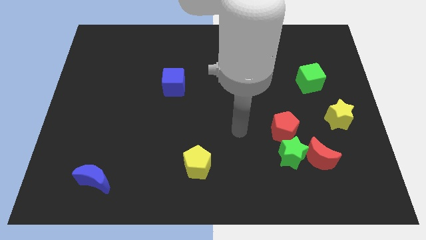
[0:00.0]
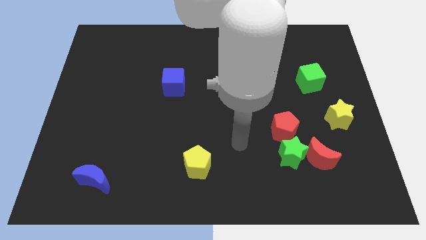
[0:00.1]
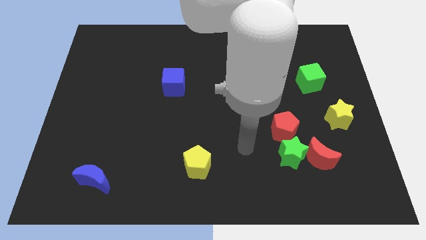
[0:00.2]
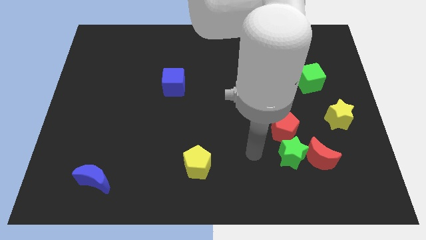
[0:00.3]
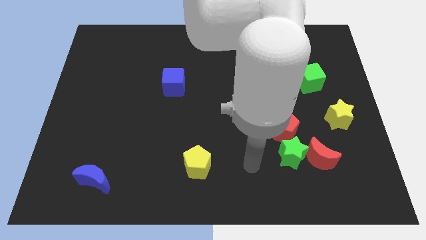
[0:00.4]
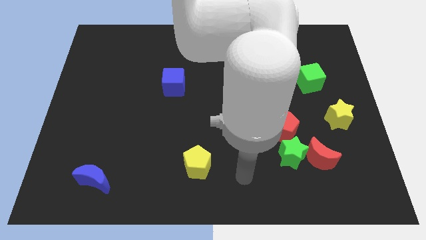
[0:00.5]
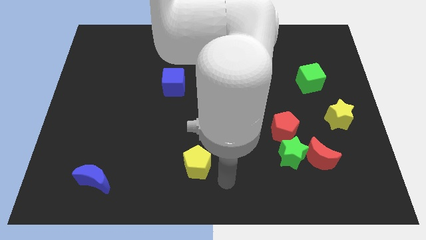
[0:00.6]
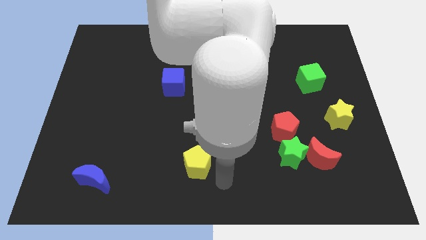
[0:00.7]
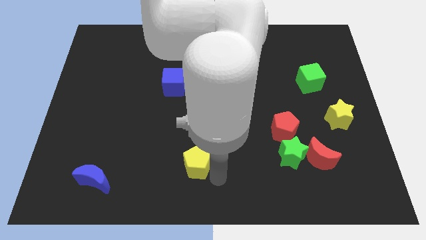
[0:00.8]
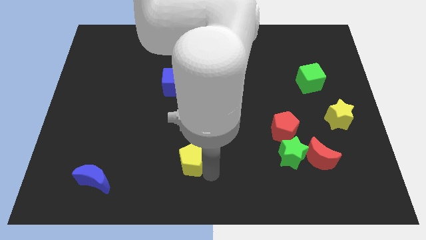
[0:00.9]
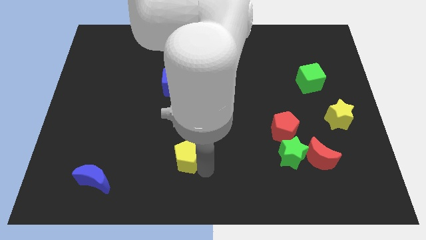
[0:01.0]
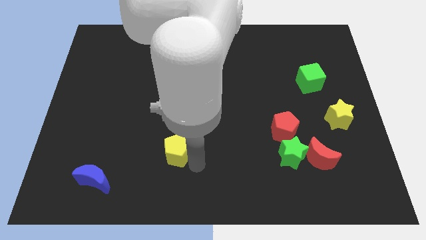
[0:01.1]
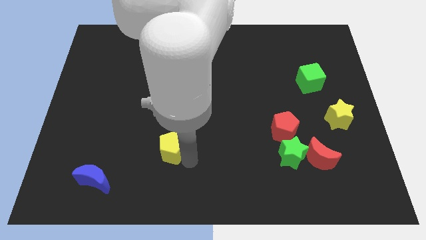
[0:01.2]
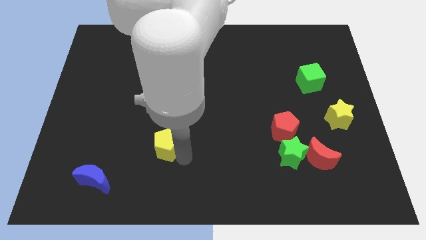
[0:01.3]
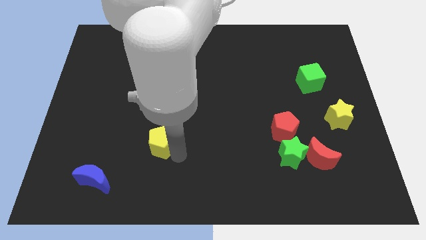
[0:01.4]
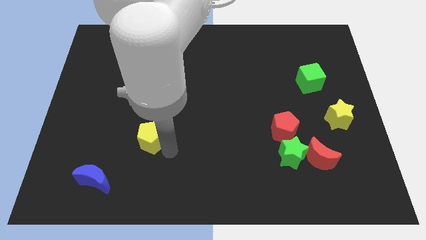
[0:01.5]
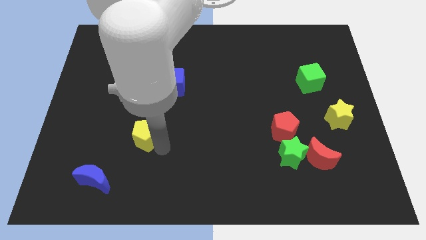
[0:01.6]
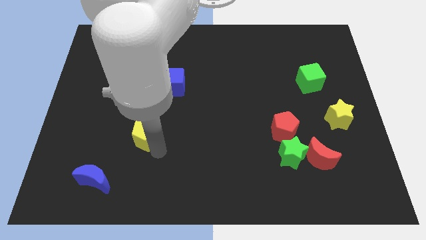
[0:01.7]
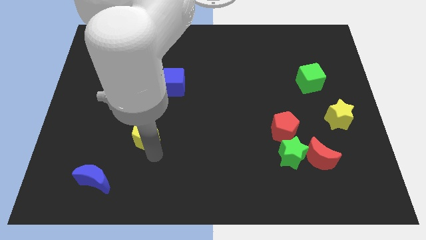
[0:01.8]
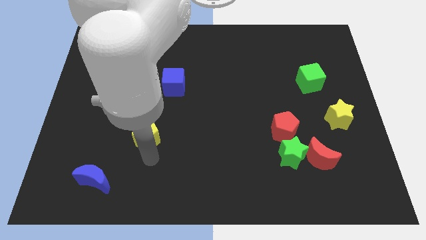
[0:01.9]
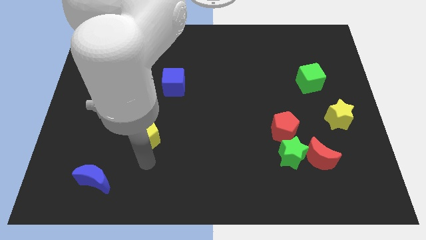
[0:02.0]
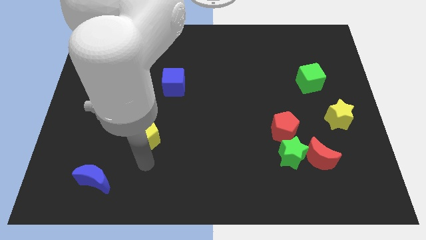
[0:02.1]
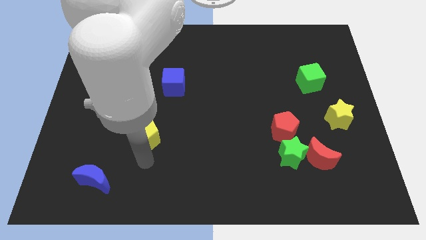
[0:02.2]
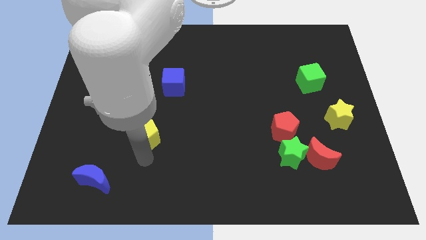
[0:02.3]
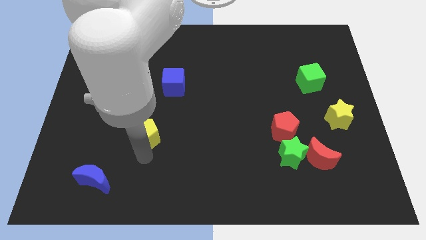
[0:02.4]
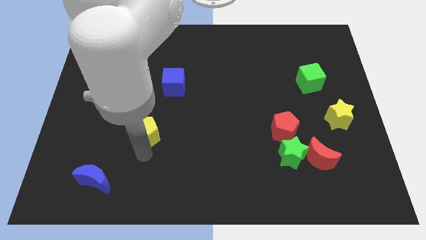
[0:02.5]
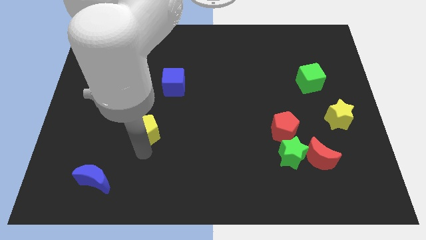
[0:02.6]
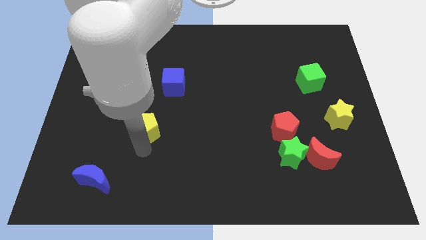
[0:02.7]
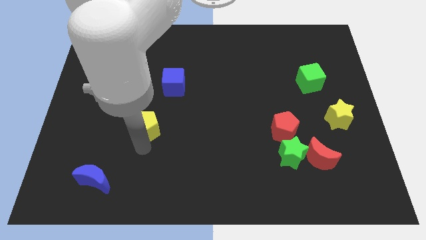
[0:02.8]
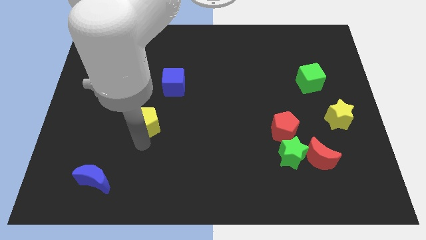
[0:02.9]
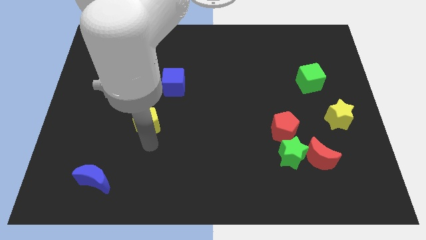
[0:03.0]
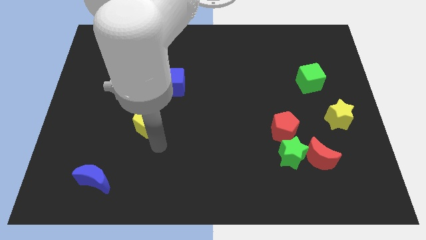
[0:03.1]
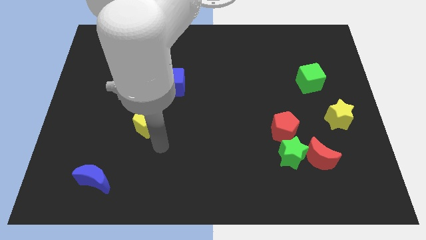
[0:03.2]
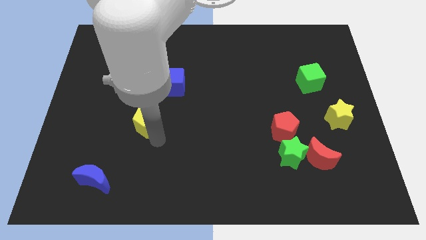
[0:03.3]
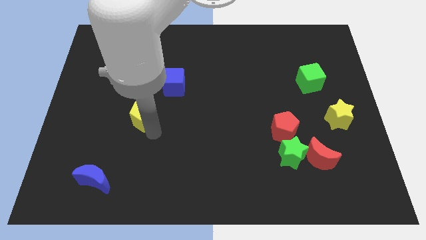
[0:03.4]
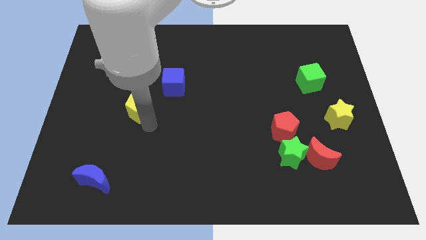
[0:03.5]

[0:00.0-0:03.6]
push the yellow pentagon up and to the left

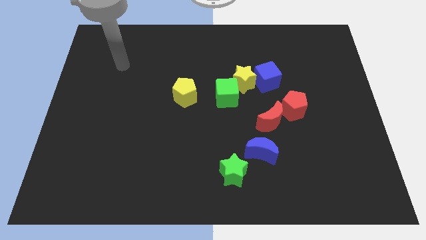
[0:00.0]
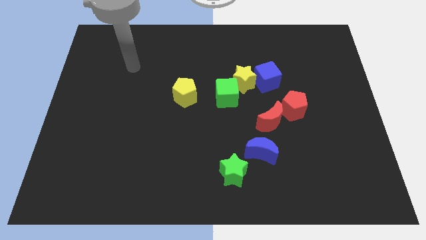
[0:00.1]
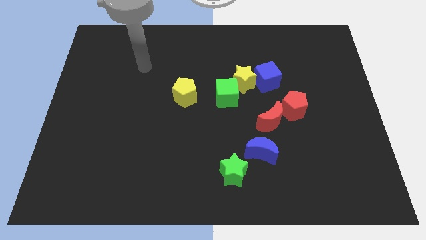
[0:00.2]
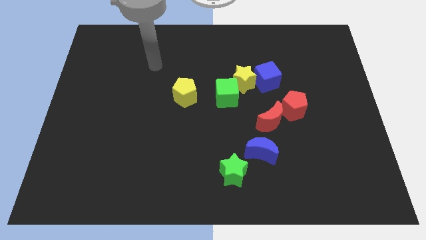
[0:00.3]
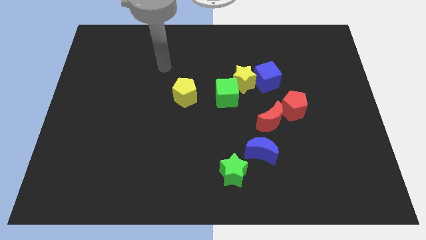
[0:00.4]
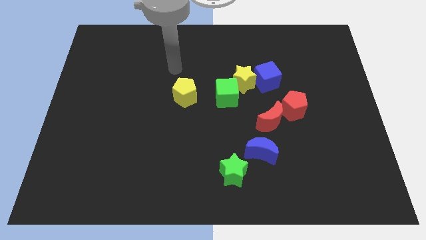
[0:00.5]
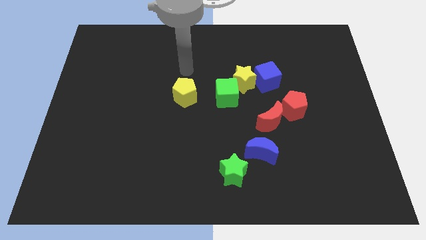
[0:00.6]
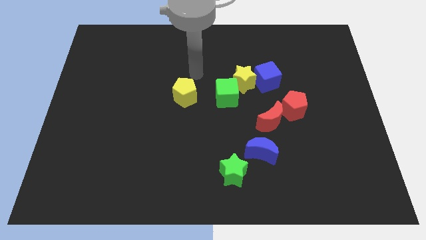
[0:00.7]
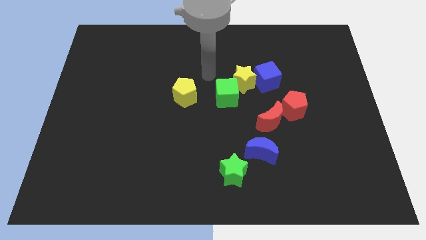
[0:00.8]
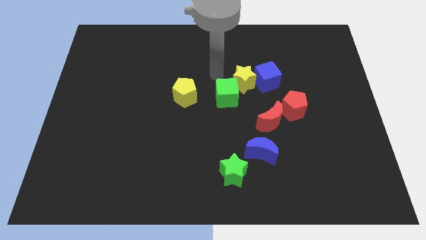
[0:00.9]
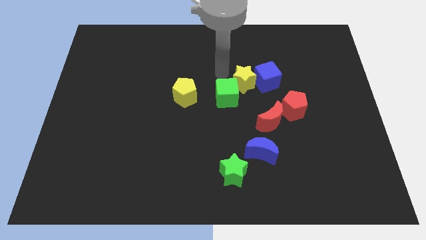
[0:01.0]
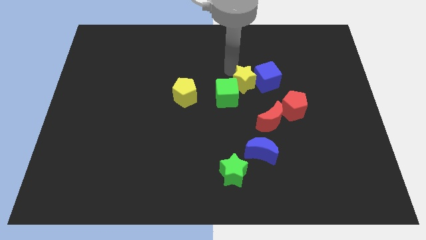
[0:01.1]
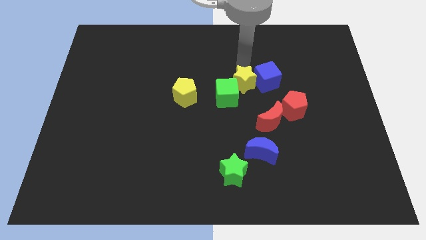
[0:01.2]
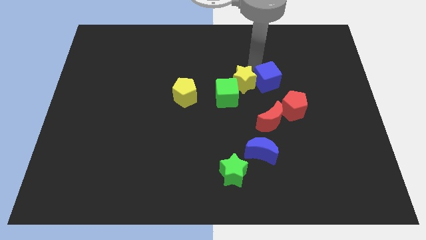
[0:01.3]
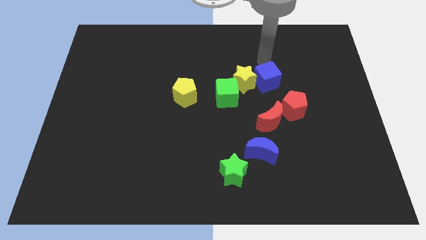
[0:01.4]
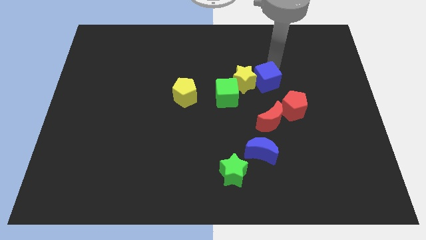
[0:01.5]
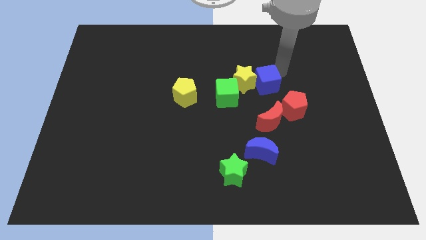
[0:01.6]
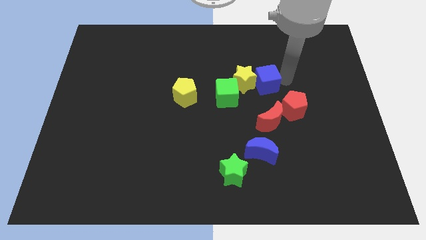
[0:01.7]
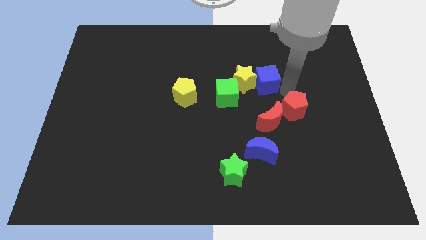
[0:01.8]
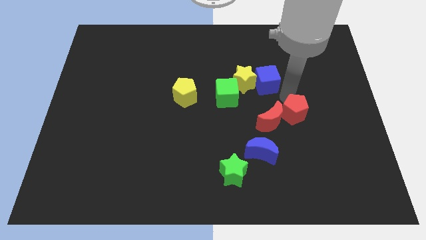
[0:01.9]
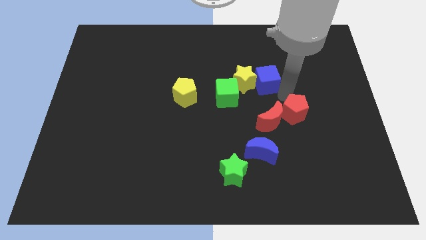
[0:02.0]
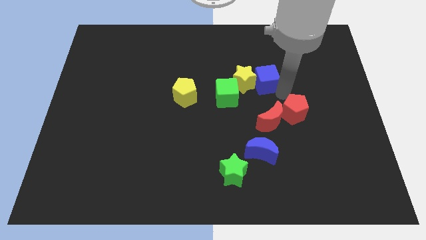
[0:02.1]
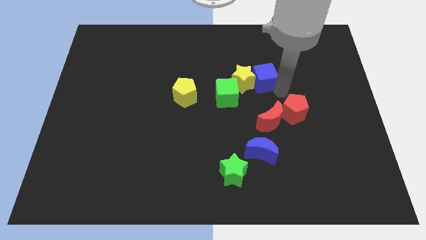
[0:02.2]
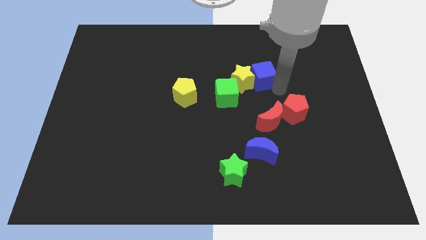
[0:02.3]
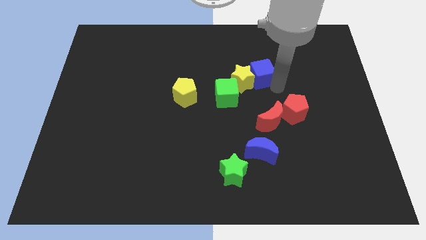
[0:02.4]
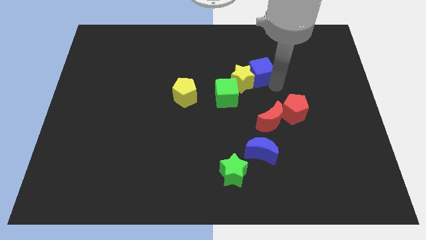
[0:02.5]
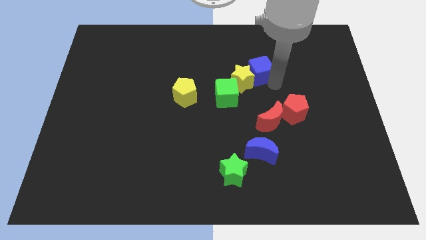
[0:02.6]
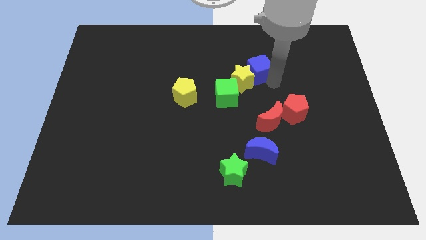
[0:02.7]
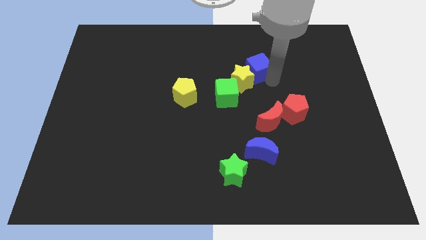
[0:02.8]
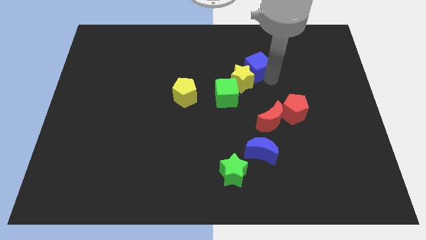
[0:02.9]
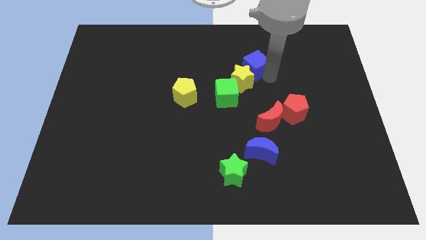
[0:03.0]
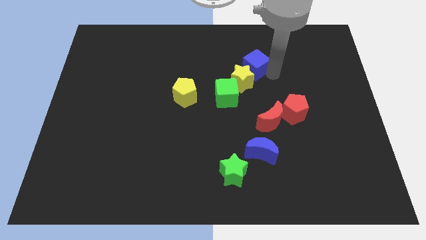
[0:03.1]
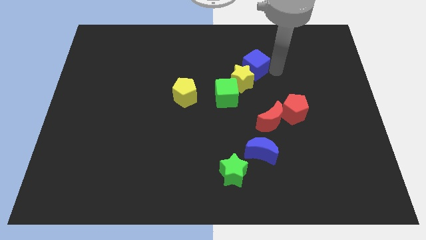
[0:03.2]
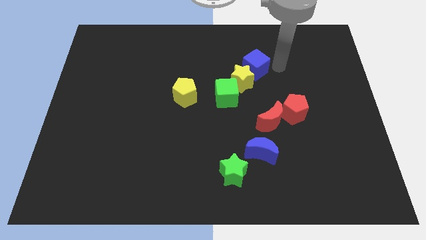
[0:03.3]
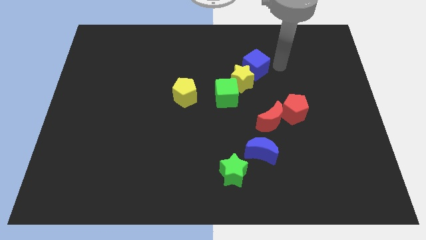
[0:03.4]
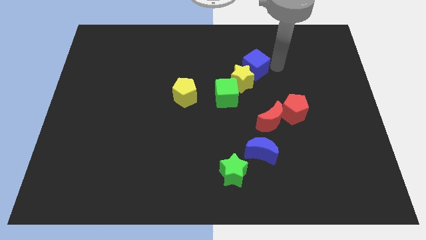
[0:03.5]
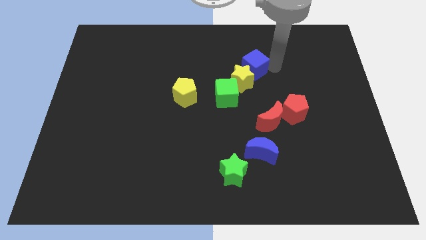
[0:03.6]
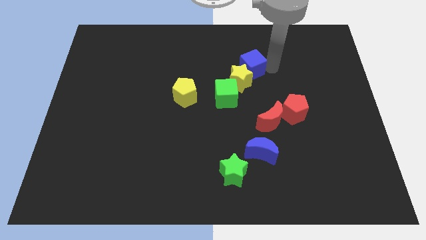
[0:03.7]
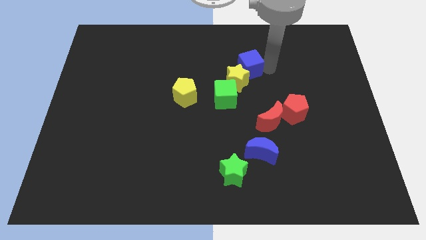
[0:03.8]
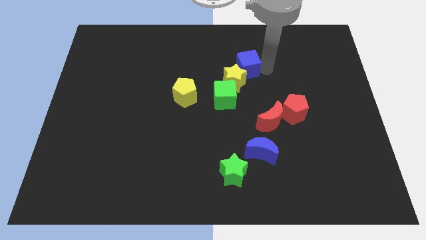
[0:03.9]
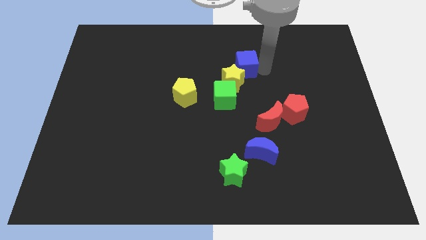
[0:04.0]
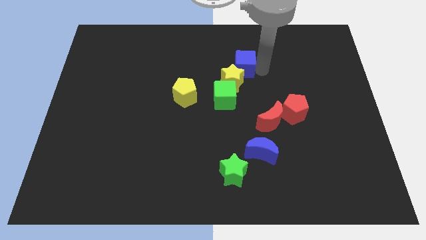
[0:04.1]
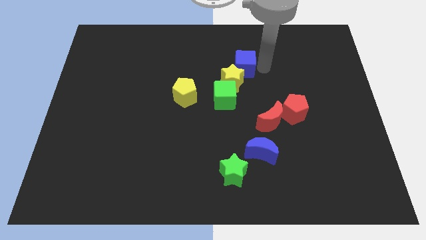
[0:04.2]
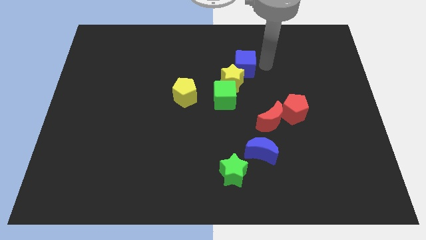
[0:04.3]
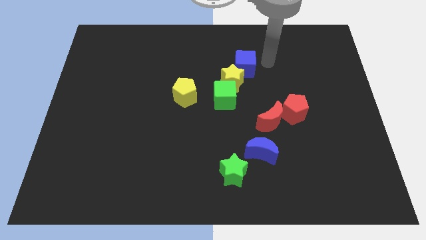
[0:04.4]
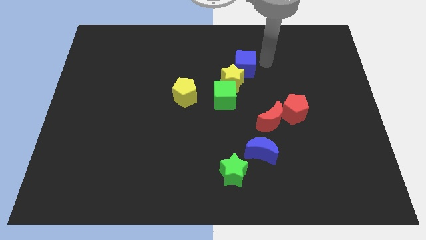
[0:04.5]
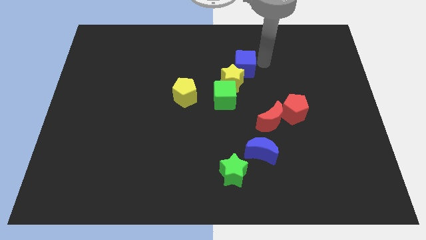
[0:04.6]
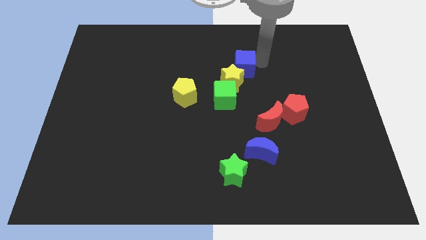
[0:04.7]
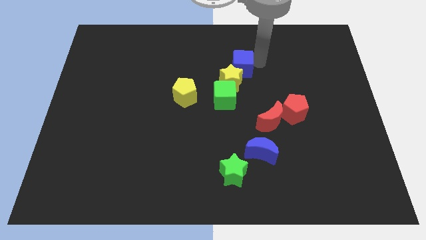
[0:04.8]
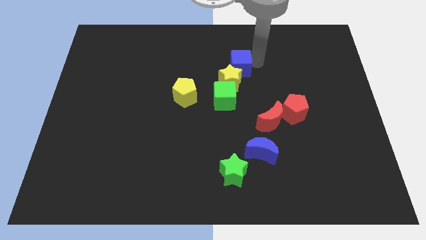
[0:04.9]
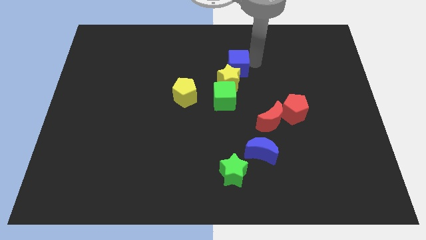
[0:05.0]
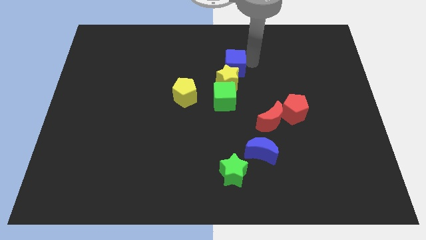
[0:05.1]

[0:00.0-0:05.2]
slightly push the blue cube to the left
